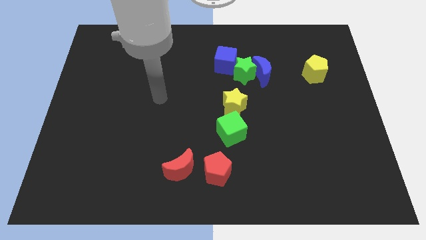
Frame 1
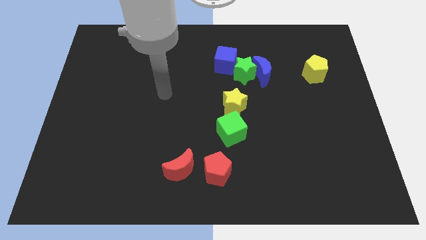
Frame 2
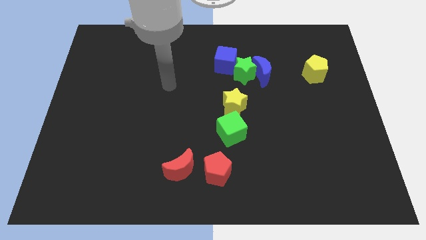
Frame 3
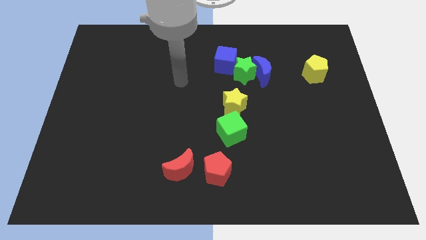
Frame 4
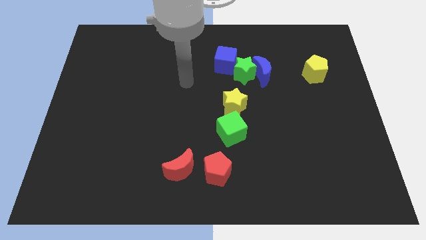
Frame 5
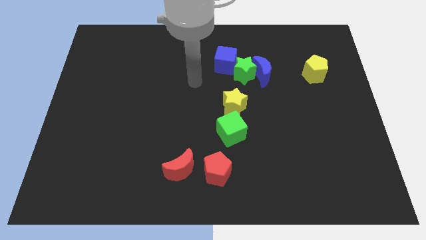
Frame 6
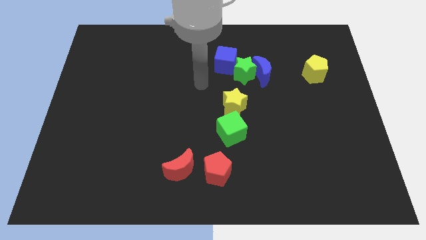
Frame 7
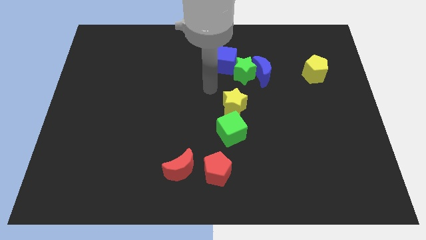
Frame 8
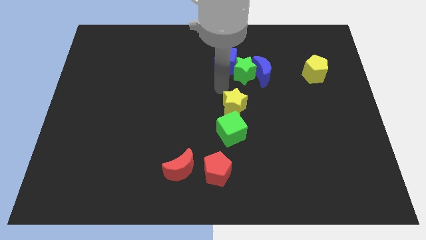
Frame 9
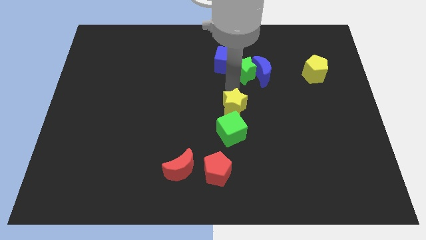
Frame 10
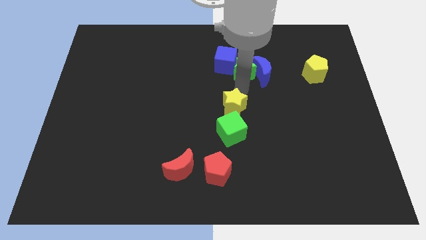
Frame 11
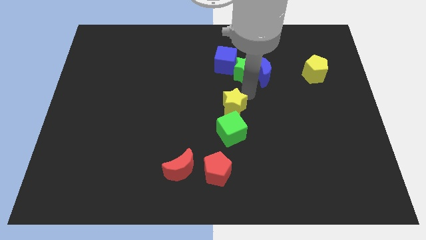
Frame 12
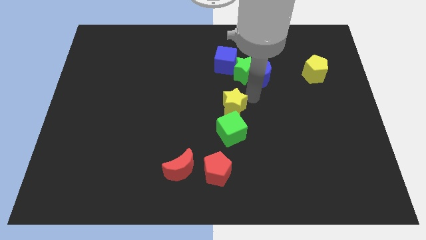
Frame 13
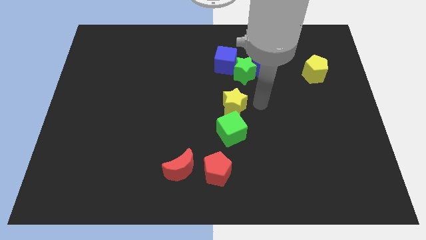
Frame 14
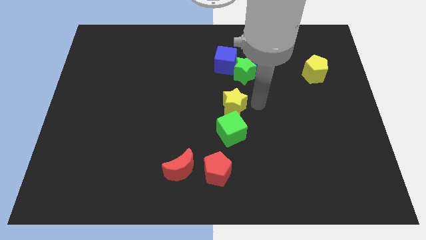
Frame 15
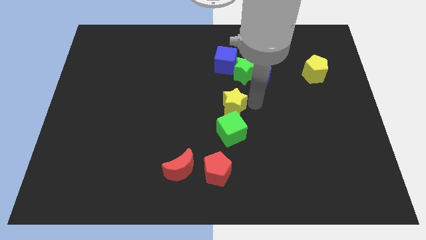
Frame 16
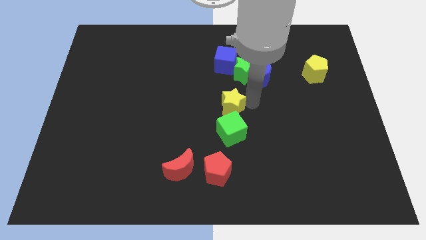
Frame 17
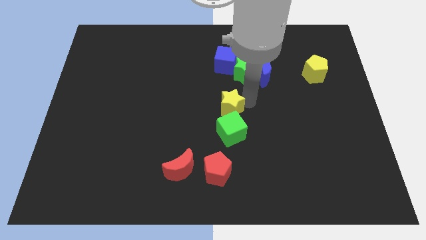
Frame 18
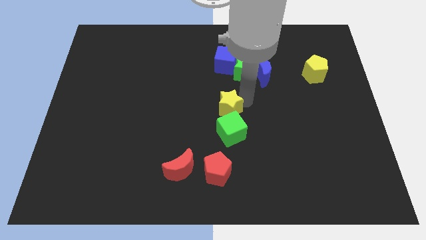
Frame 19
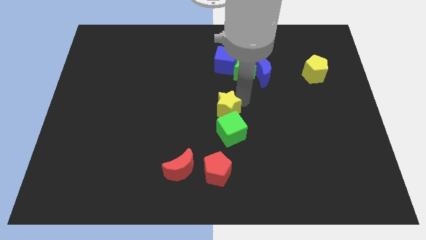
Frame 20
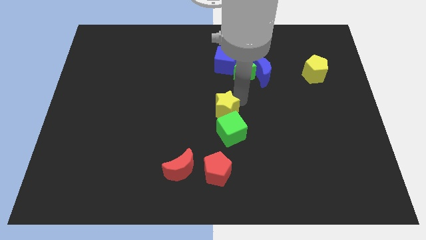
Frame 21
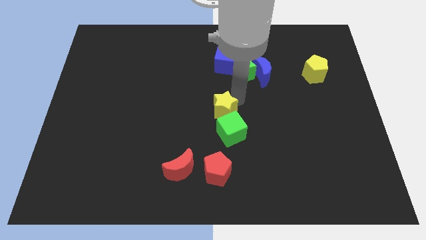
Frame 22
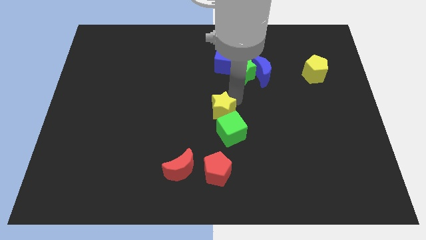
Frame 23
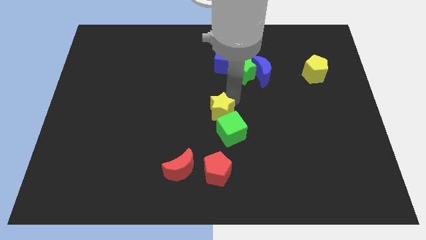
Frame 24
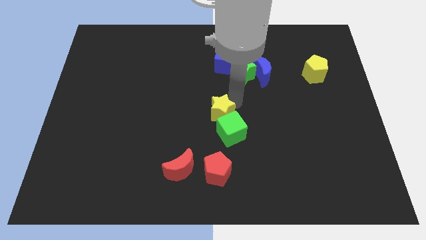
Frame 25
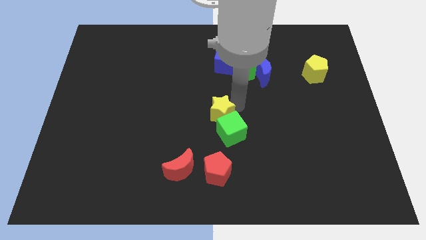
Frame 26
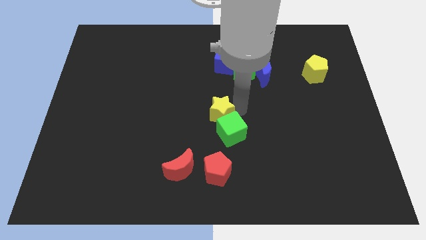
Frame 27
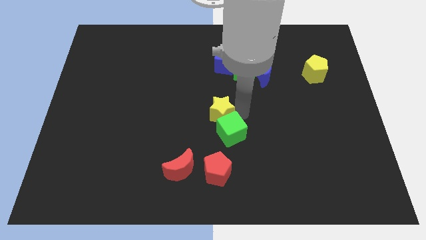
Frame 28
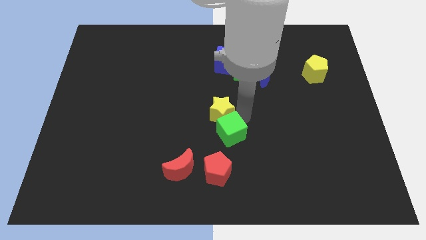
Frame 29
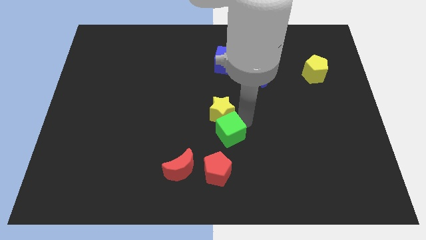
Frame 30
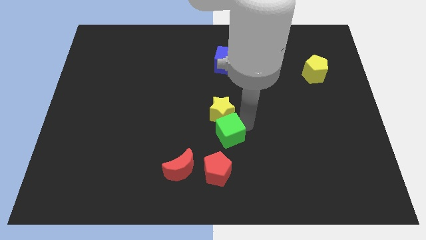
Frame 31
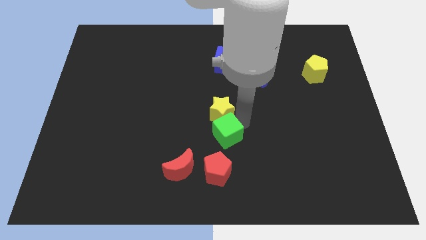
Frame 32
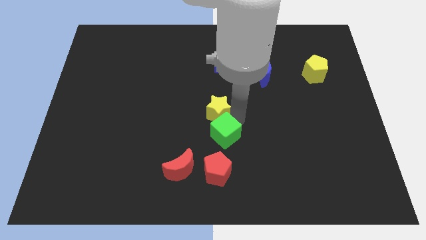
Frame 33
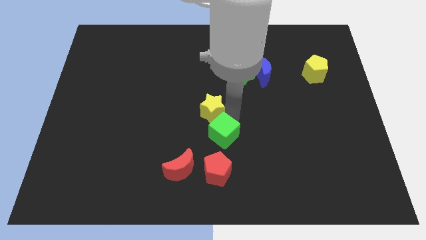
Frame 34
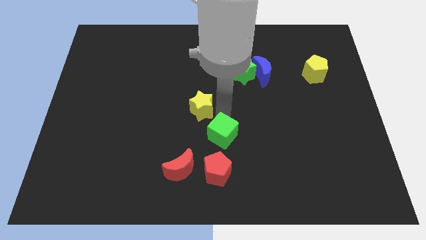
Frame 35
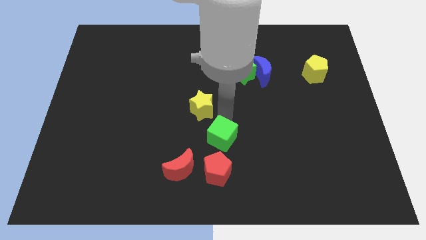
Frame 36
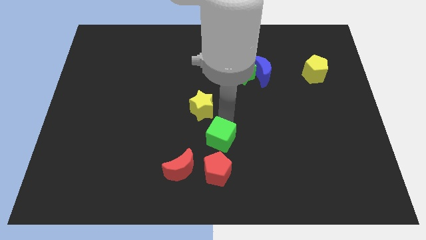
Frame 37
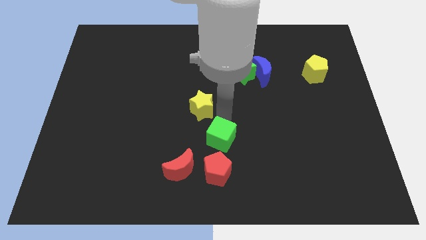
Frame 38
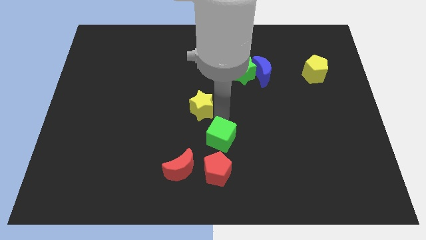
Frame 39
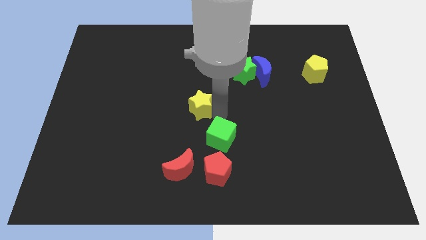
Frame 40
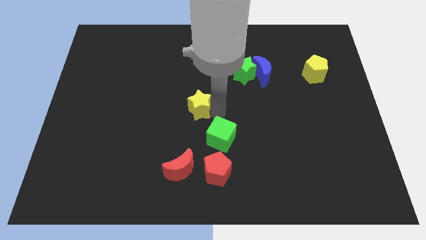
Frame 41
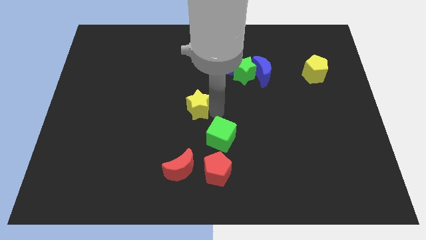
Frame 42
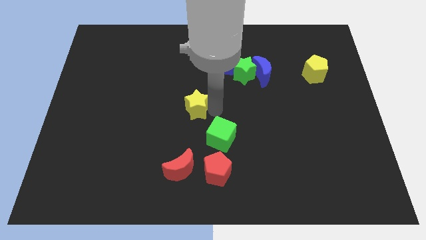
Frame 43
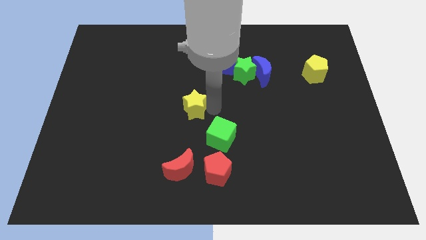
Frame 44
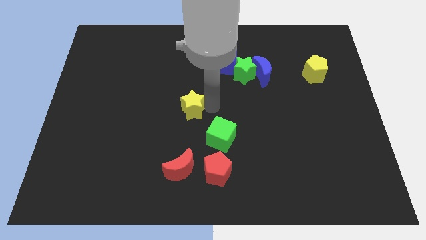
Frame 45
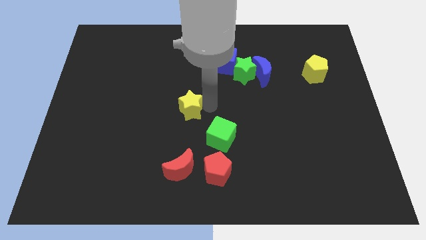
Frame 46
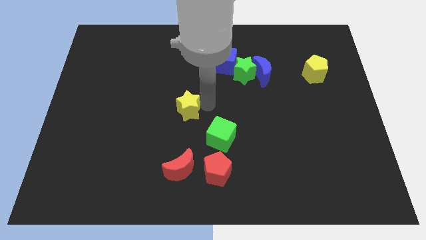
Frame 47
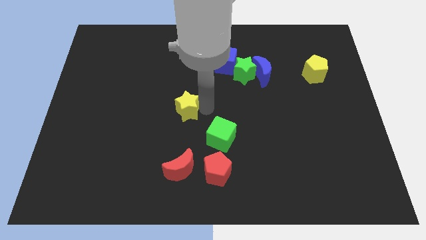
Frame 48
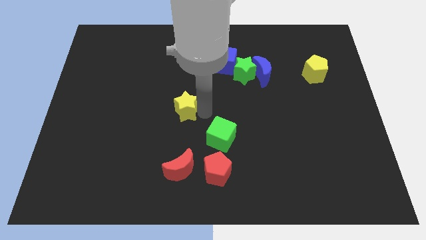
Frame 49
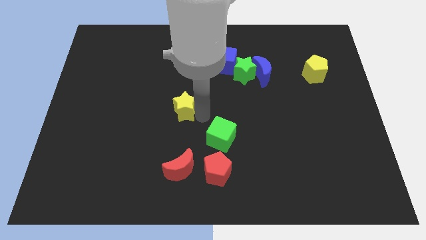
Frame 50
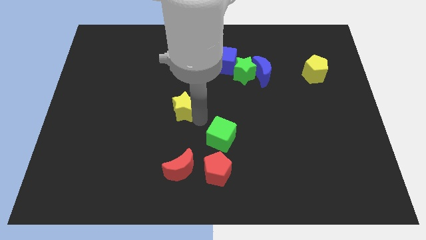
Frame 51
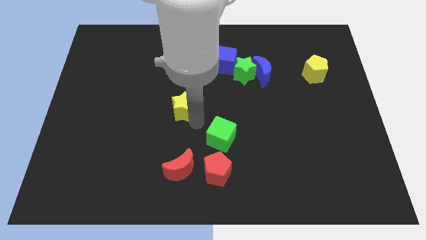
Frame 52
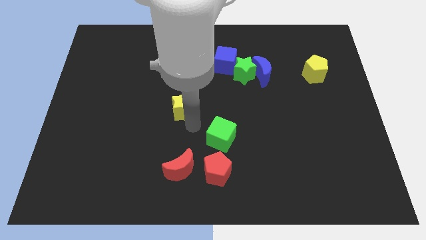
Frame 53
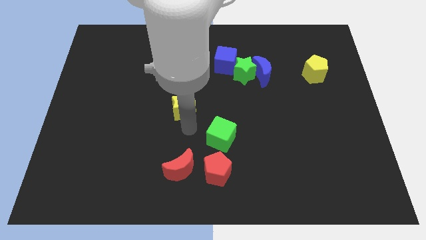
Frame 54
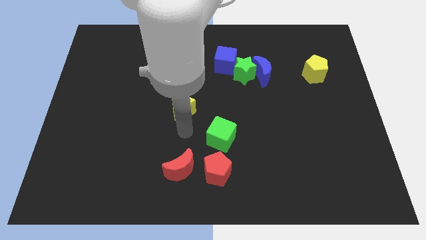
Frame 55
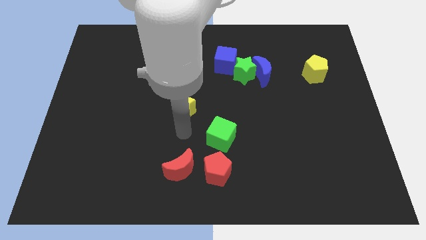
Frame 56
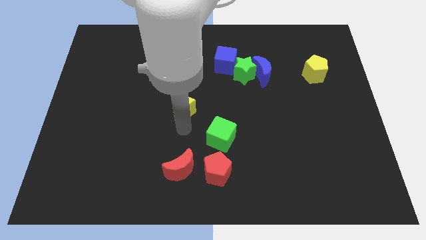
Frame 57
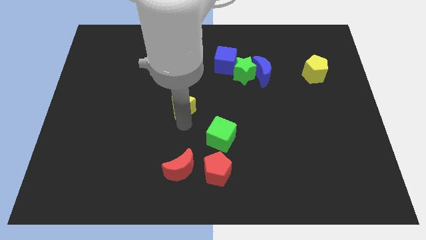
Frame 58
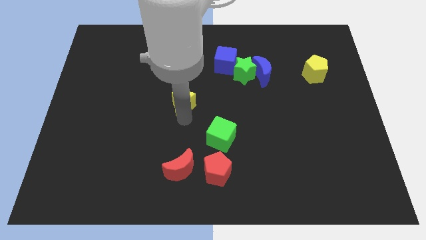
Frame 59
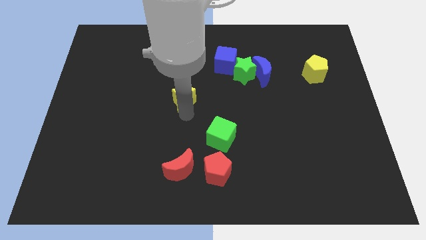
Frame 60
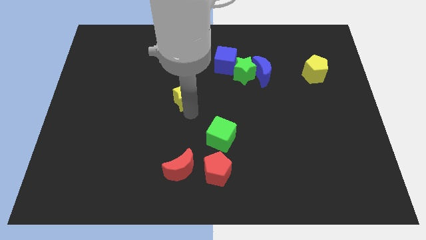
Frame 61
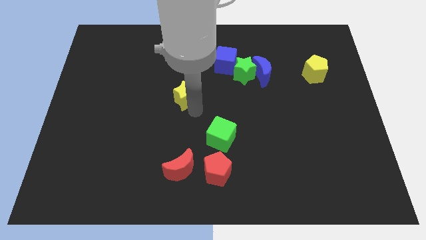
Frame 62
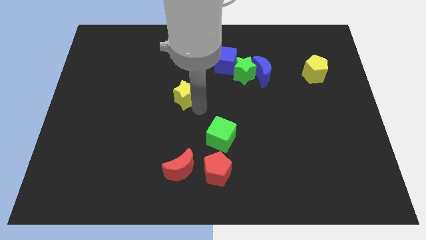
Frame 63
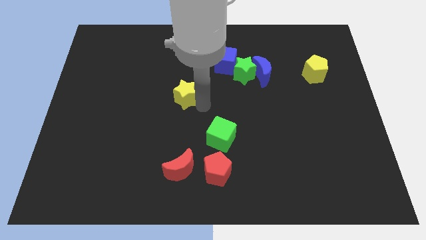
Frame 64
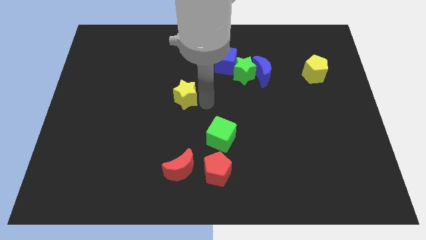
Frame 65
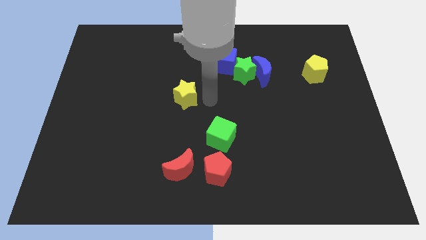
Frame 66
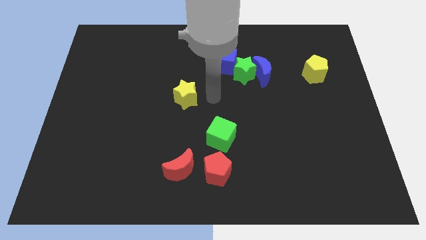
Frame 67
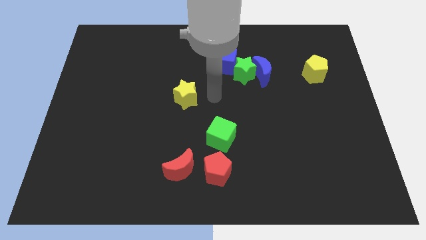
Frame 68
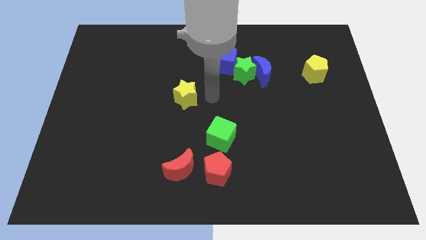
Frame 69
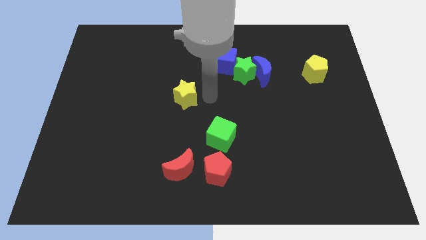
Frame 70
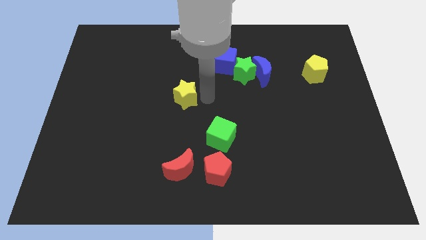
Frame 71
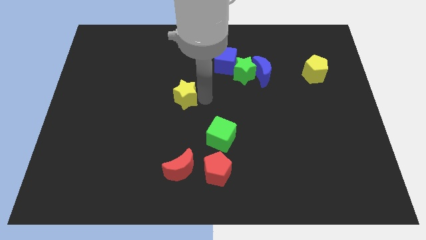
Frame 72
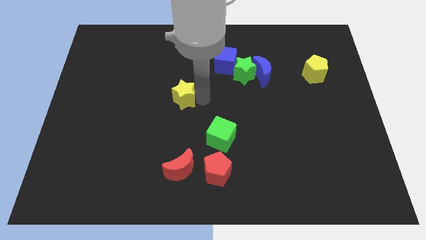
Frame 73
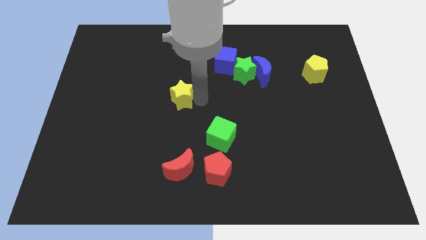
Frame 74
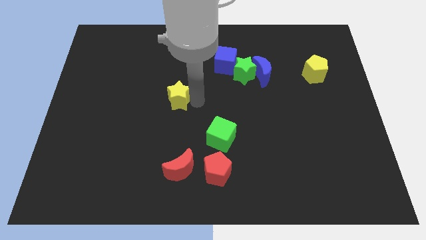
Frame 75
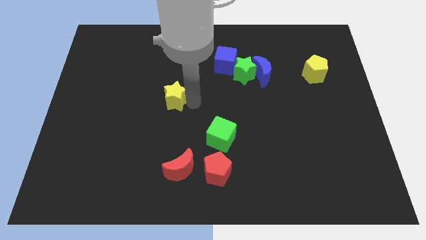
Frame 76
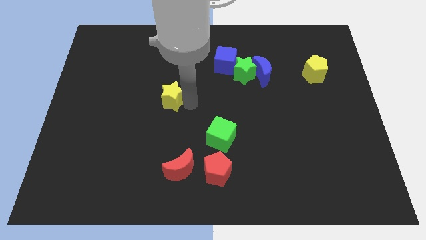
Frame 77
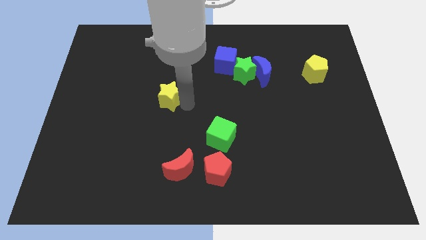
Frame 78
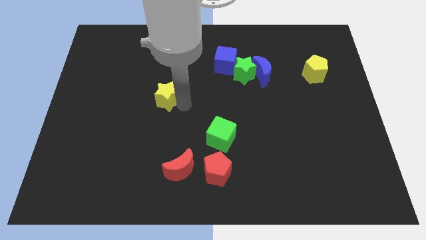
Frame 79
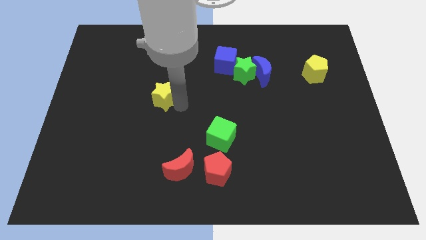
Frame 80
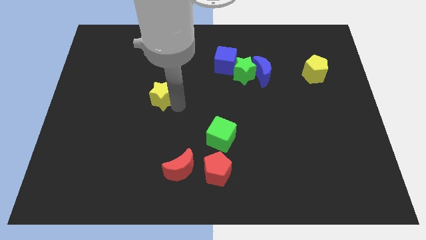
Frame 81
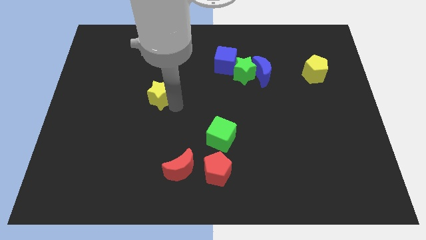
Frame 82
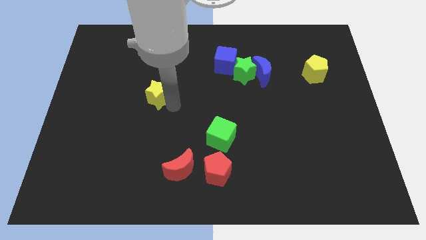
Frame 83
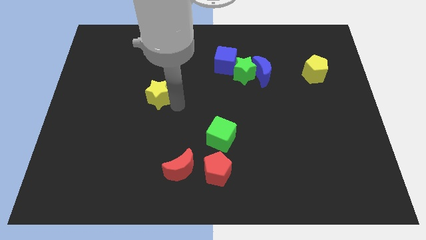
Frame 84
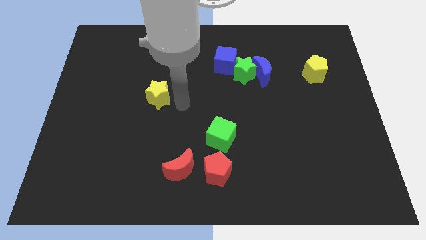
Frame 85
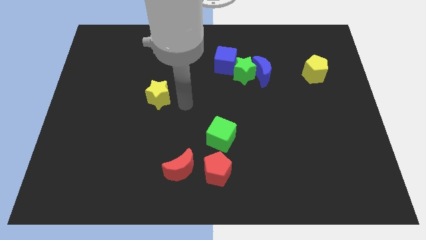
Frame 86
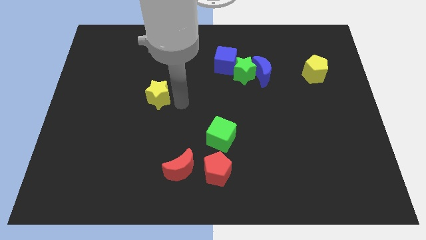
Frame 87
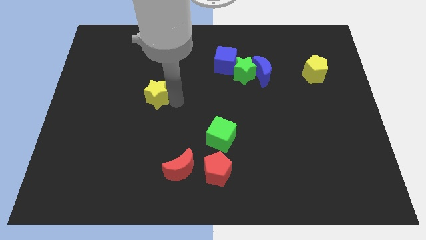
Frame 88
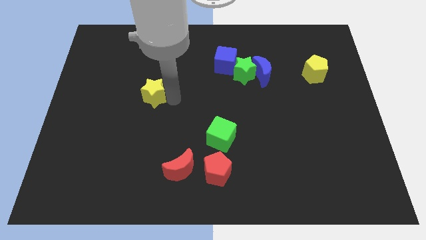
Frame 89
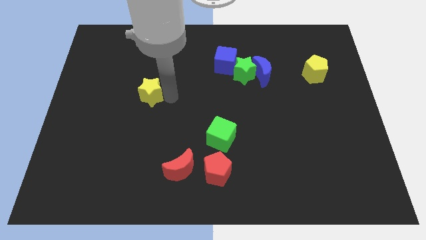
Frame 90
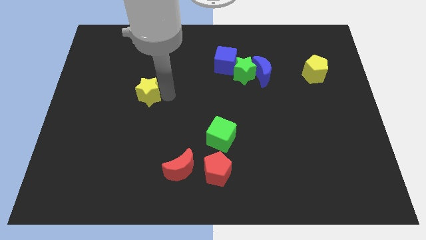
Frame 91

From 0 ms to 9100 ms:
move the yellow star to the left
